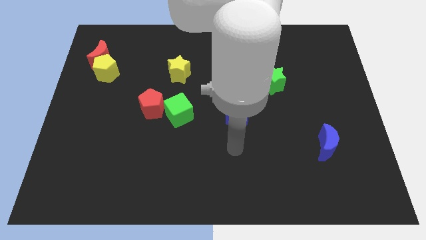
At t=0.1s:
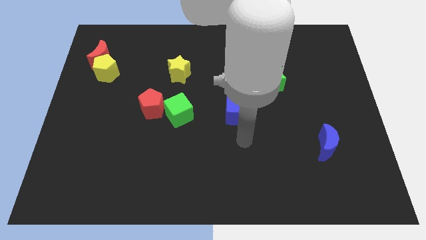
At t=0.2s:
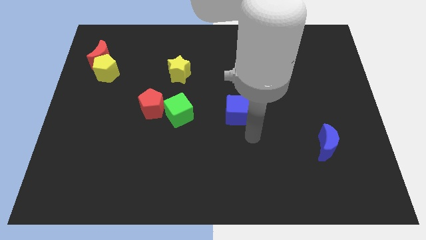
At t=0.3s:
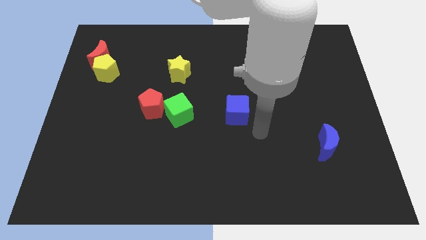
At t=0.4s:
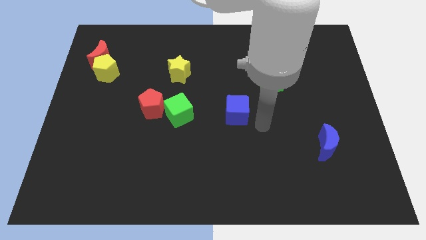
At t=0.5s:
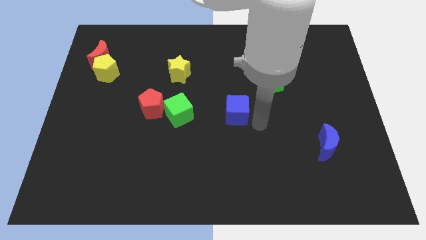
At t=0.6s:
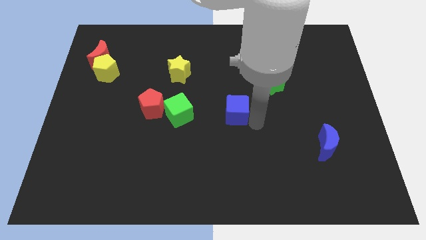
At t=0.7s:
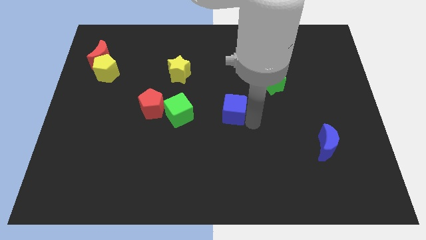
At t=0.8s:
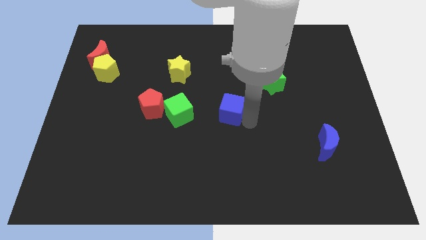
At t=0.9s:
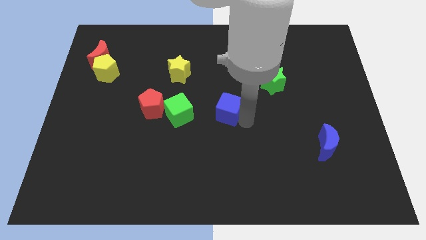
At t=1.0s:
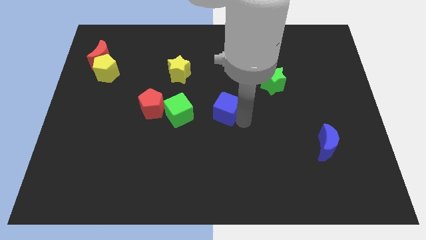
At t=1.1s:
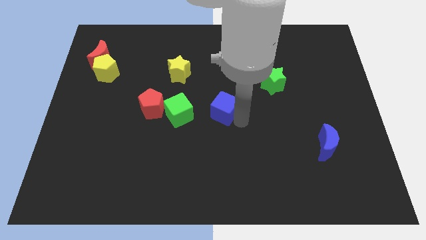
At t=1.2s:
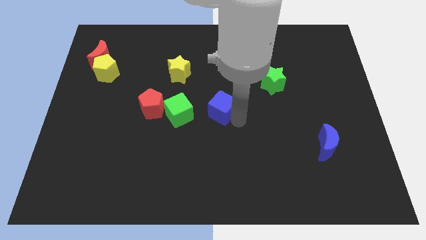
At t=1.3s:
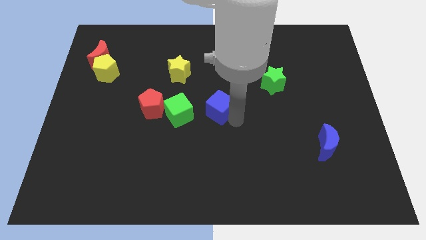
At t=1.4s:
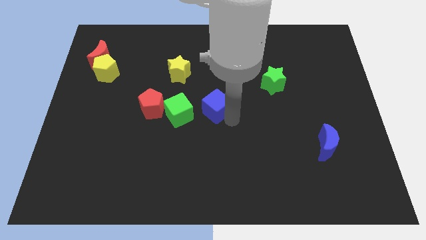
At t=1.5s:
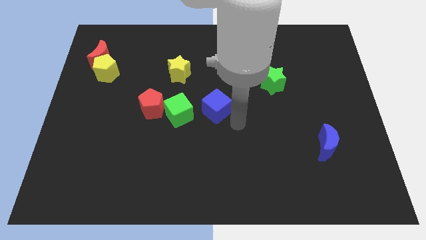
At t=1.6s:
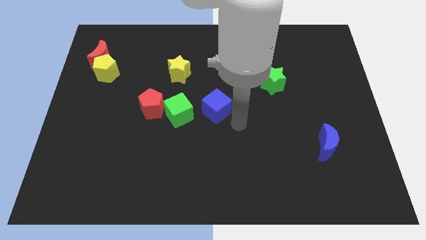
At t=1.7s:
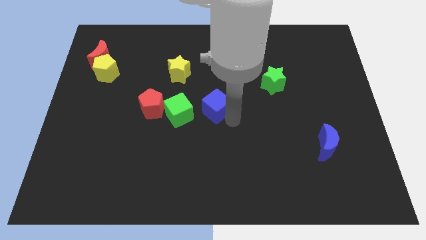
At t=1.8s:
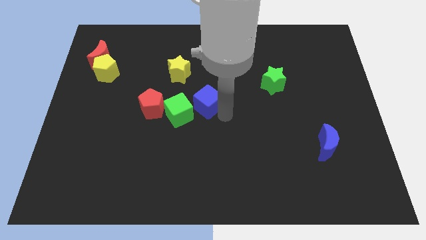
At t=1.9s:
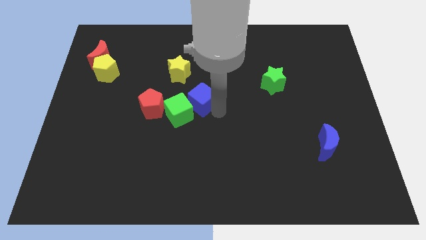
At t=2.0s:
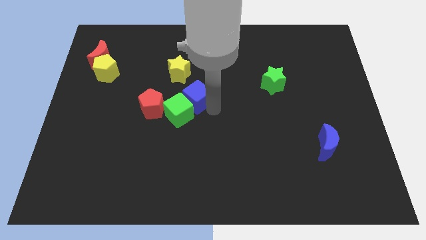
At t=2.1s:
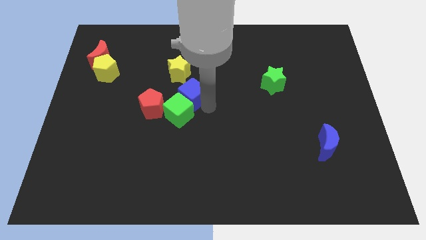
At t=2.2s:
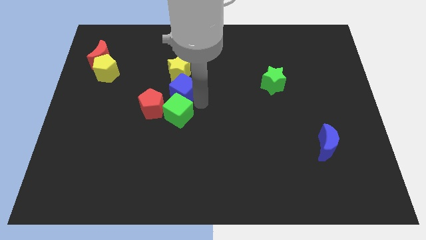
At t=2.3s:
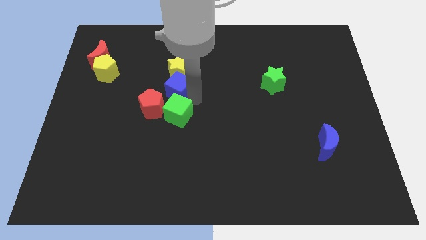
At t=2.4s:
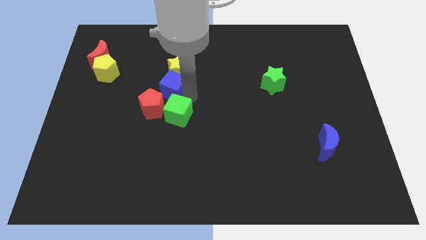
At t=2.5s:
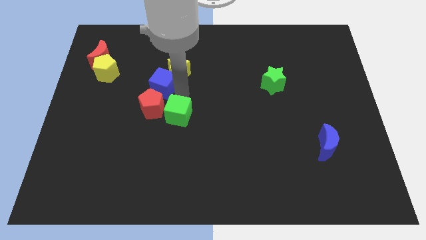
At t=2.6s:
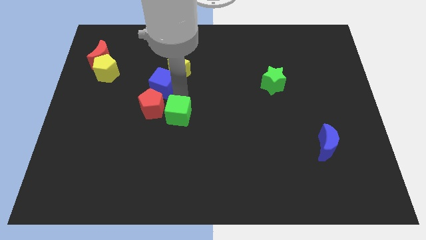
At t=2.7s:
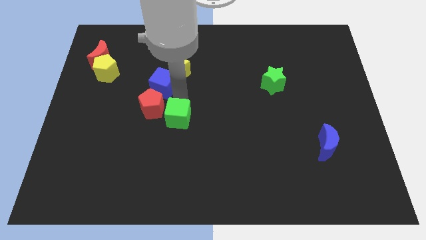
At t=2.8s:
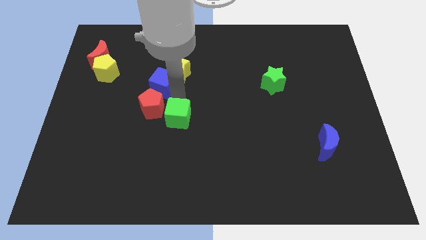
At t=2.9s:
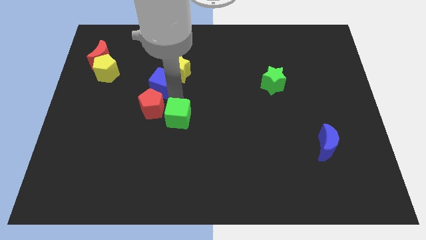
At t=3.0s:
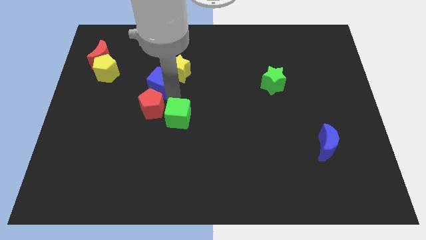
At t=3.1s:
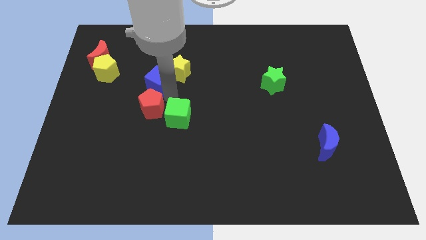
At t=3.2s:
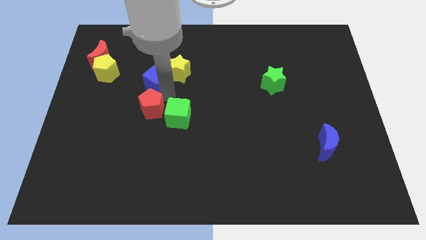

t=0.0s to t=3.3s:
slide the blue cube to the right of the yellow pentagon

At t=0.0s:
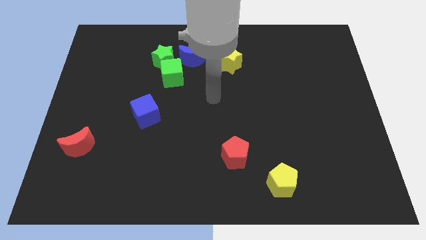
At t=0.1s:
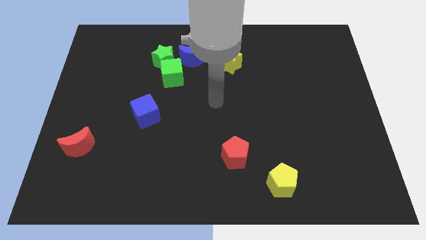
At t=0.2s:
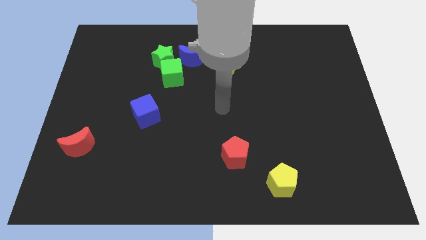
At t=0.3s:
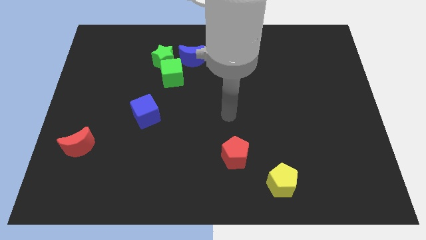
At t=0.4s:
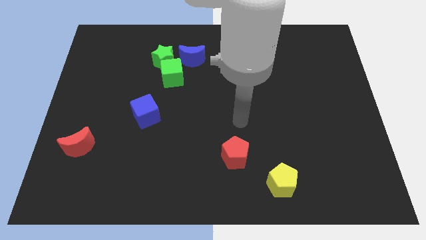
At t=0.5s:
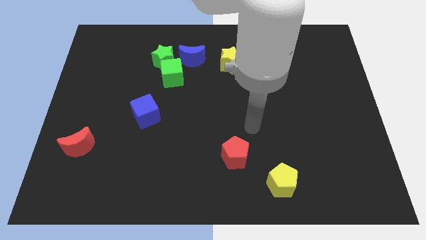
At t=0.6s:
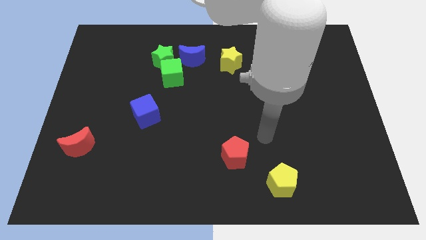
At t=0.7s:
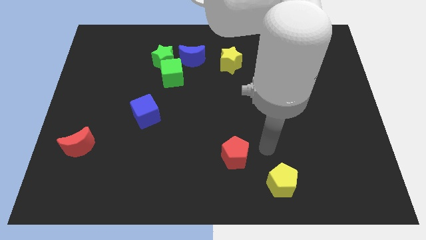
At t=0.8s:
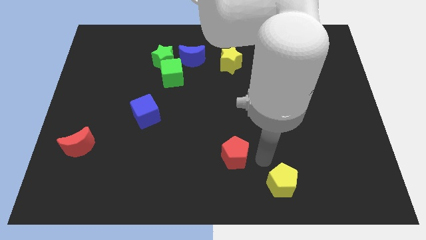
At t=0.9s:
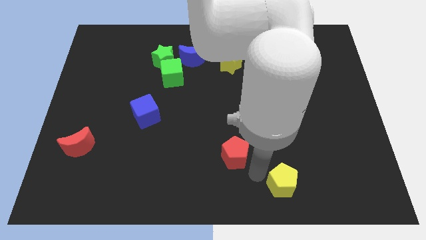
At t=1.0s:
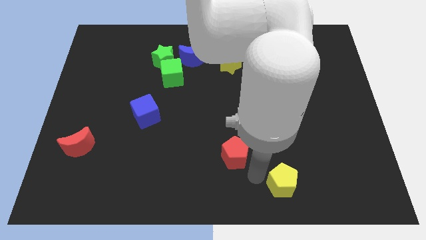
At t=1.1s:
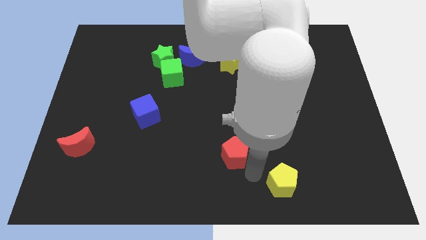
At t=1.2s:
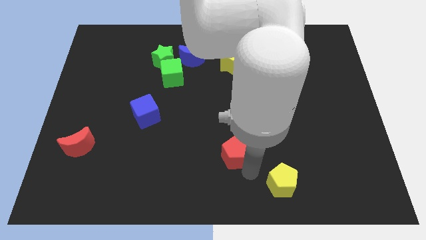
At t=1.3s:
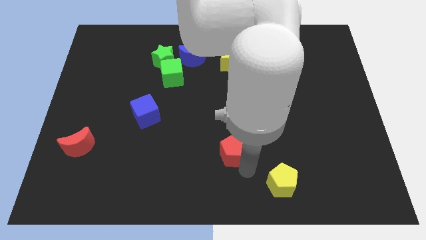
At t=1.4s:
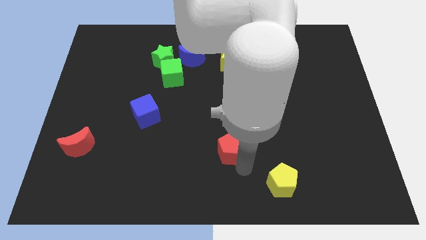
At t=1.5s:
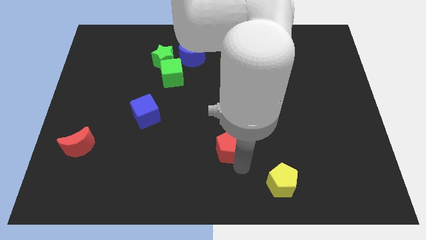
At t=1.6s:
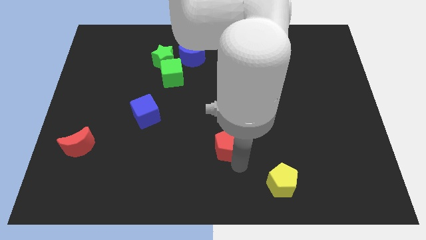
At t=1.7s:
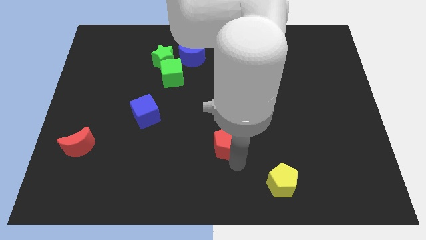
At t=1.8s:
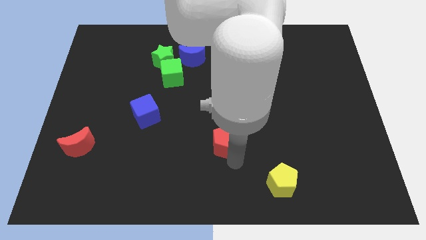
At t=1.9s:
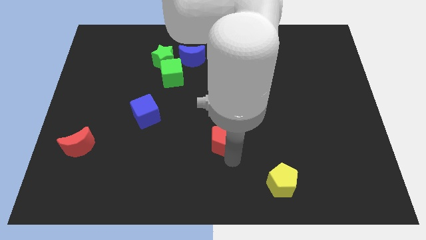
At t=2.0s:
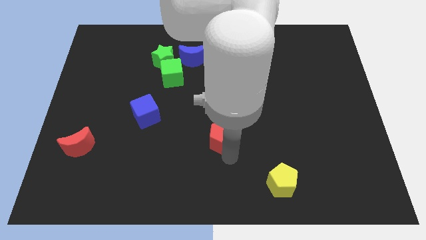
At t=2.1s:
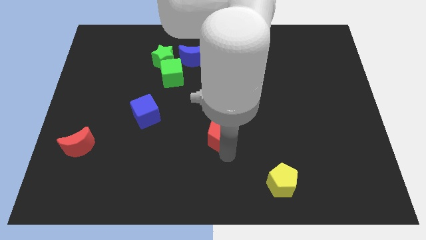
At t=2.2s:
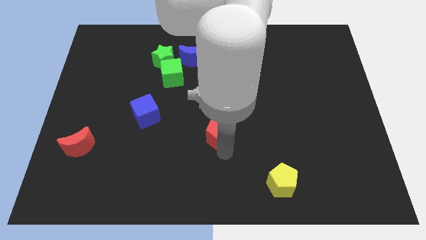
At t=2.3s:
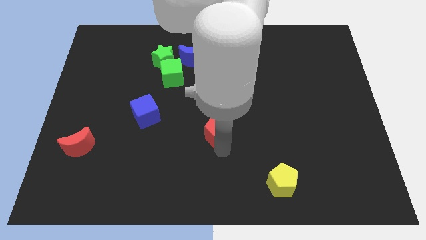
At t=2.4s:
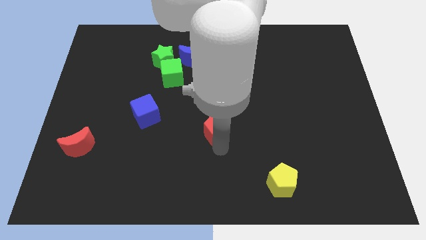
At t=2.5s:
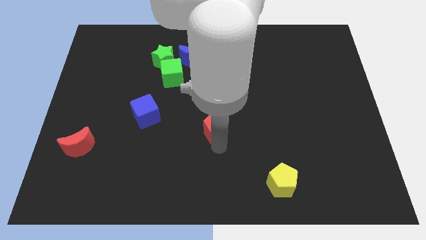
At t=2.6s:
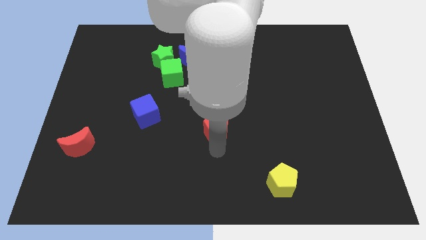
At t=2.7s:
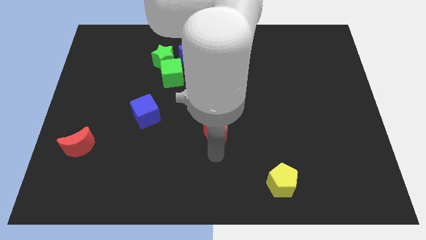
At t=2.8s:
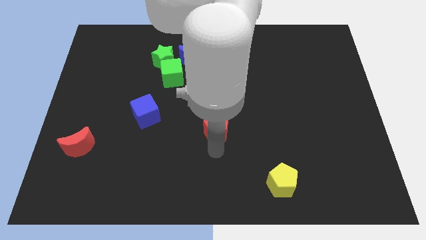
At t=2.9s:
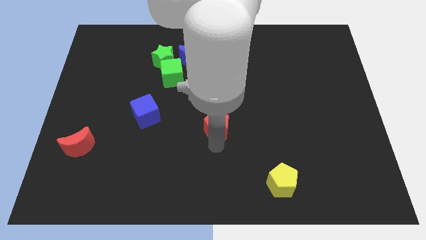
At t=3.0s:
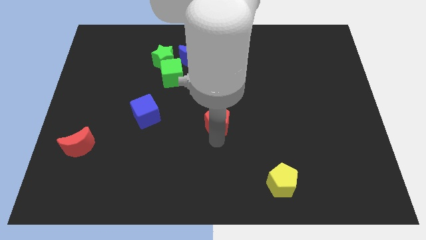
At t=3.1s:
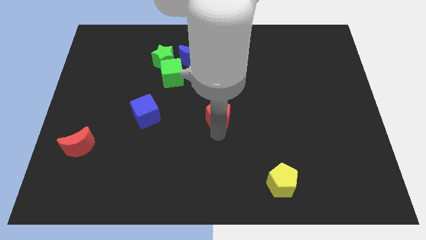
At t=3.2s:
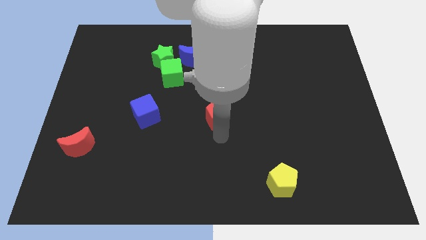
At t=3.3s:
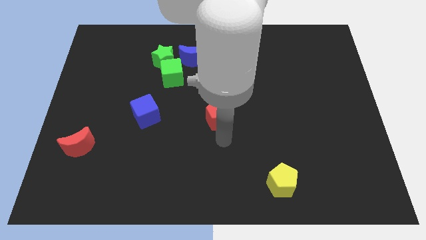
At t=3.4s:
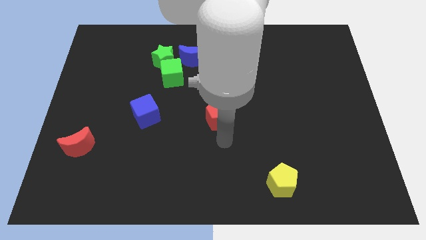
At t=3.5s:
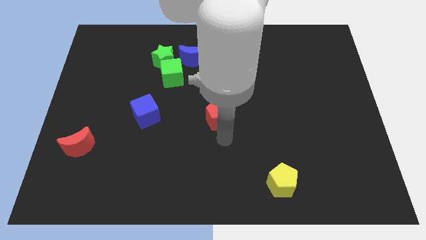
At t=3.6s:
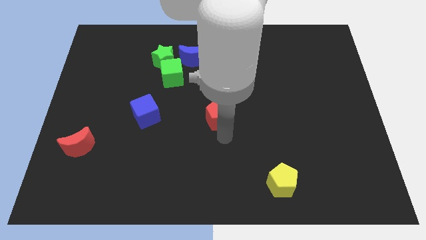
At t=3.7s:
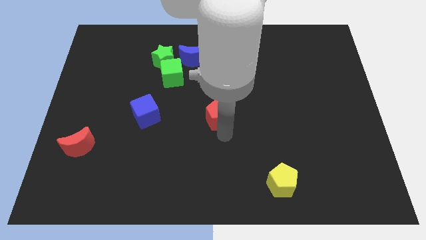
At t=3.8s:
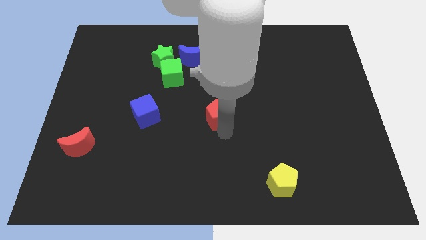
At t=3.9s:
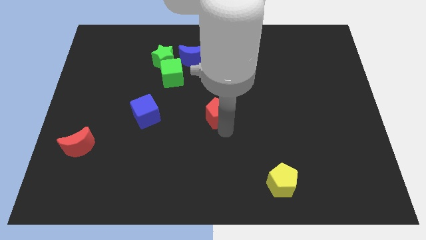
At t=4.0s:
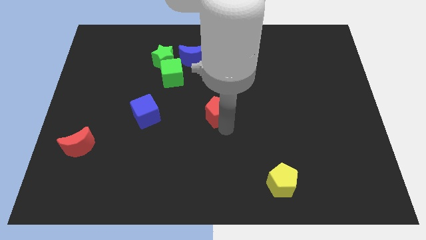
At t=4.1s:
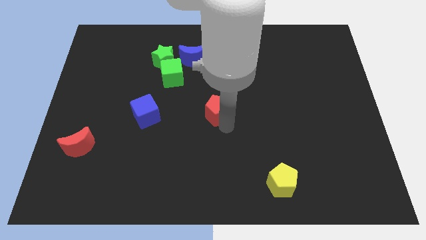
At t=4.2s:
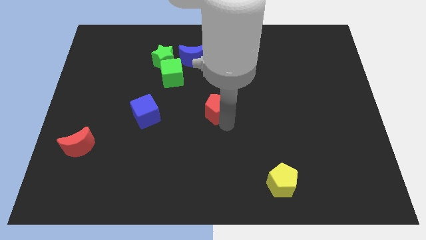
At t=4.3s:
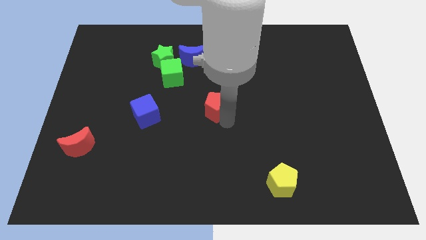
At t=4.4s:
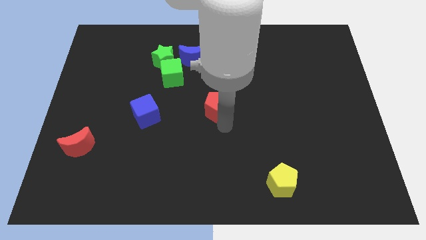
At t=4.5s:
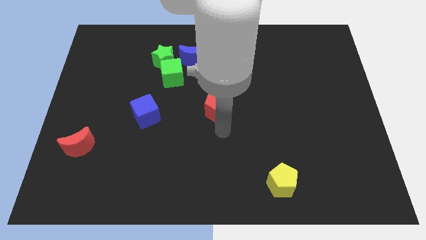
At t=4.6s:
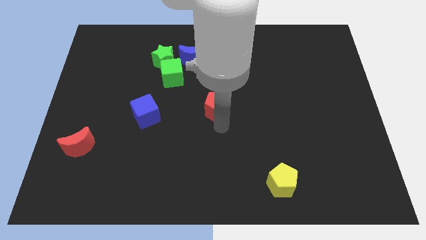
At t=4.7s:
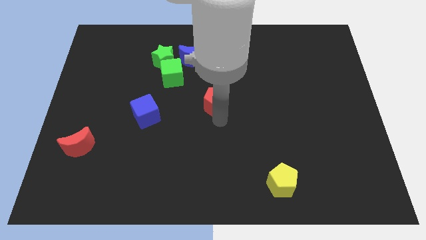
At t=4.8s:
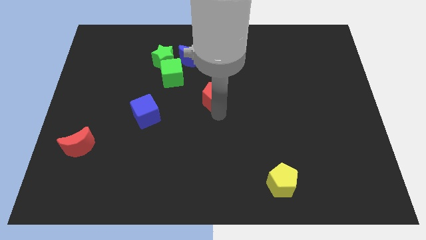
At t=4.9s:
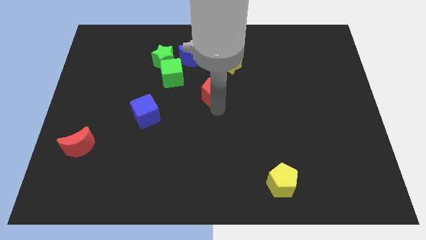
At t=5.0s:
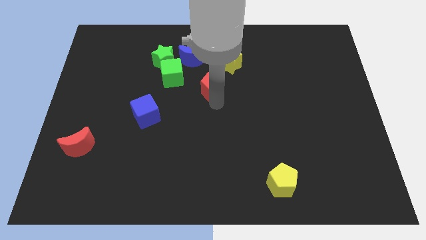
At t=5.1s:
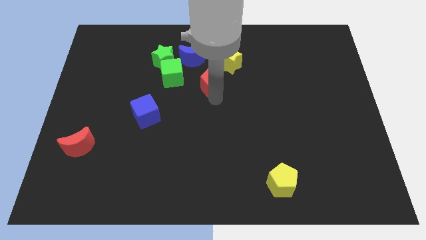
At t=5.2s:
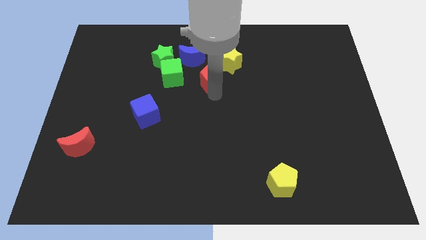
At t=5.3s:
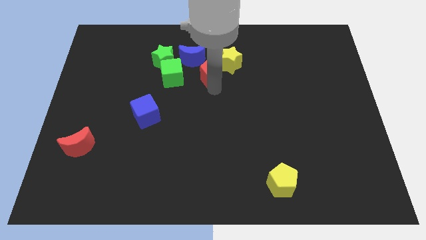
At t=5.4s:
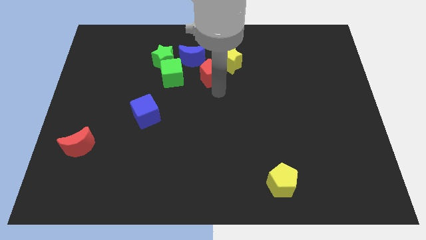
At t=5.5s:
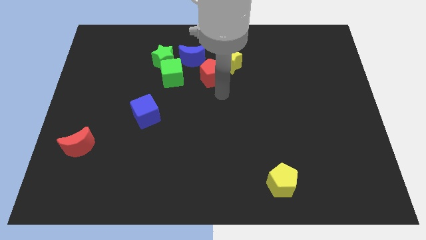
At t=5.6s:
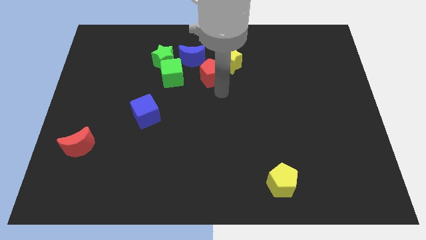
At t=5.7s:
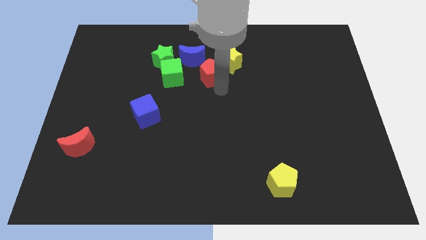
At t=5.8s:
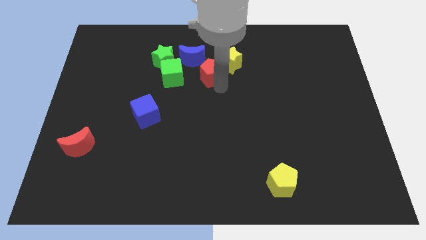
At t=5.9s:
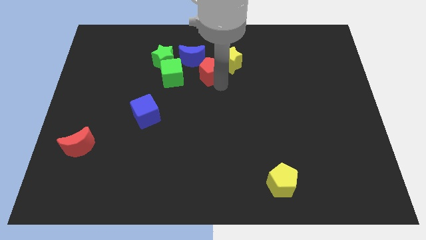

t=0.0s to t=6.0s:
slide the red pentagon just right of the green star
